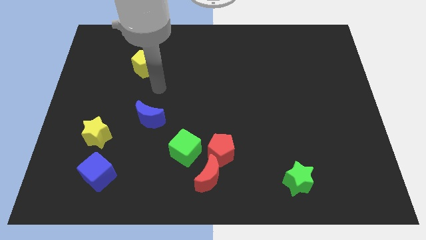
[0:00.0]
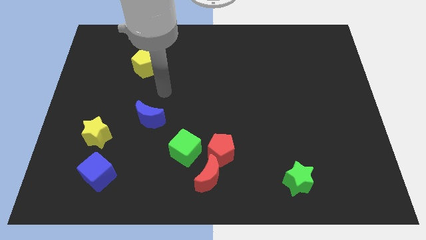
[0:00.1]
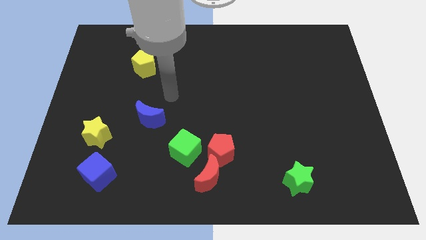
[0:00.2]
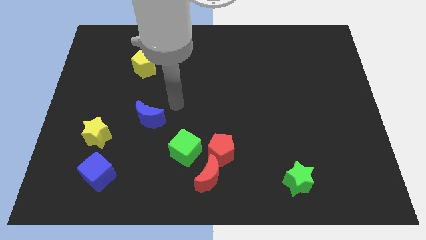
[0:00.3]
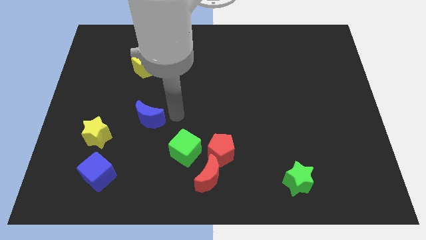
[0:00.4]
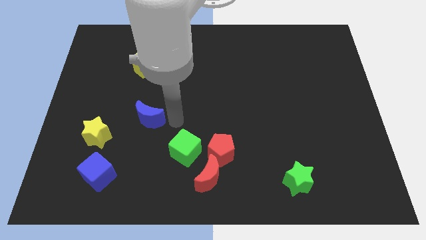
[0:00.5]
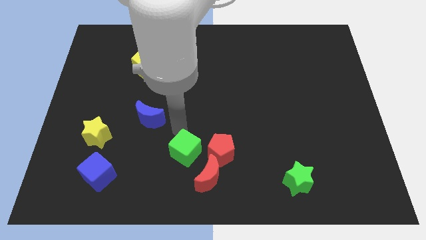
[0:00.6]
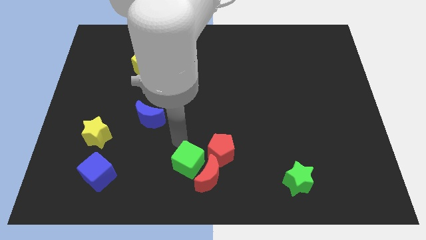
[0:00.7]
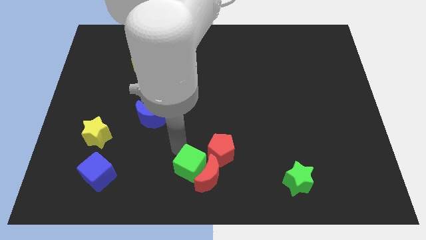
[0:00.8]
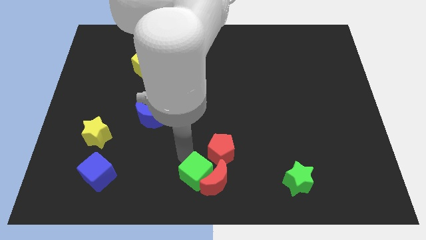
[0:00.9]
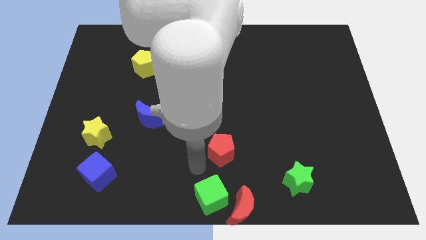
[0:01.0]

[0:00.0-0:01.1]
separate the red pentagon from the red moon and green cube

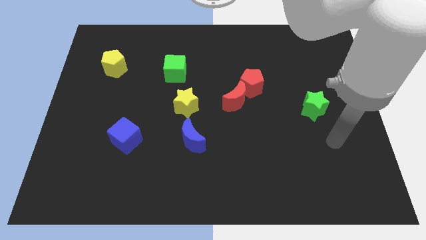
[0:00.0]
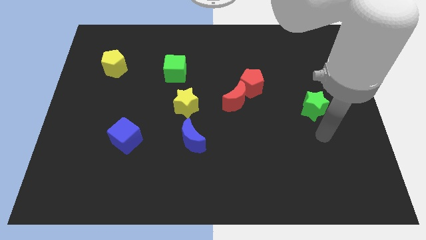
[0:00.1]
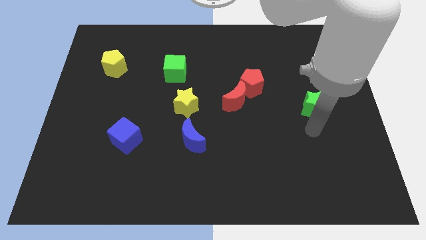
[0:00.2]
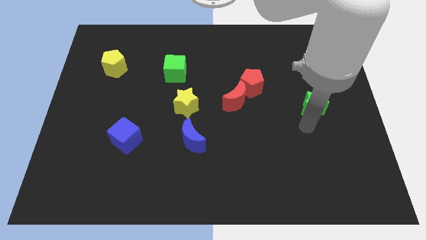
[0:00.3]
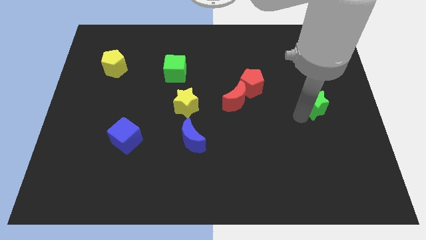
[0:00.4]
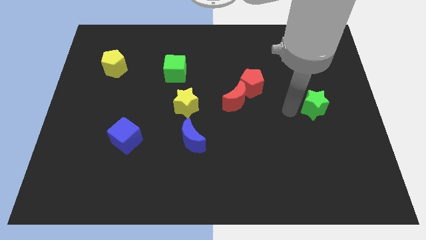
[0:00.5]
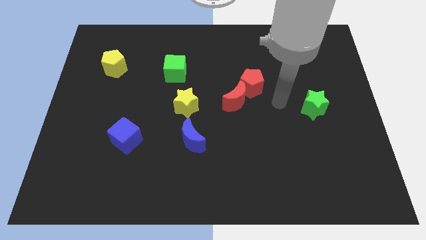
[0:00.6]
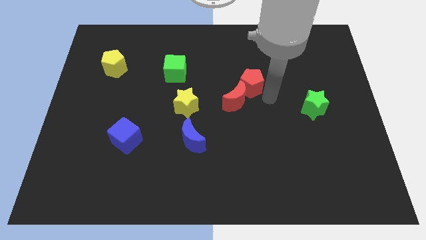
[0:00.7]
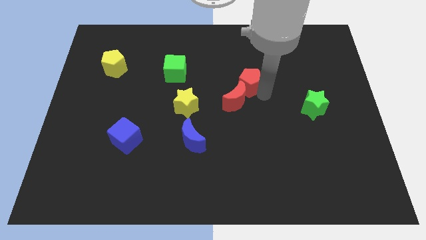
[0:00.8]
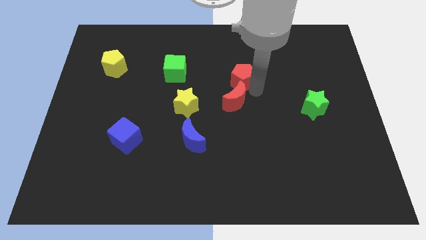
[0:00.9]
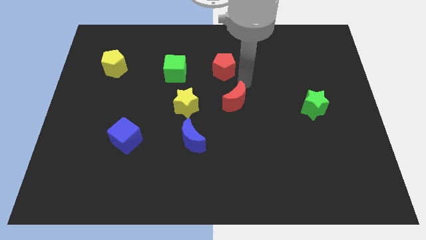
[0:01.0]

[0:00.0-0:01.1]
pull the red moon apart from the red pentagon

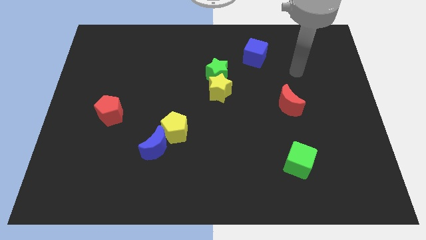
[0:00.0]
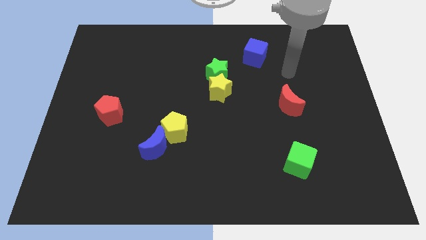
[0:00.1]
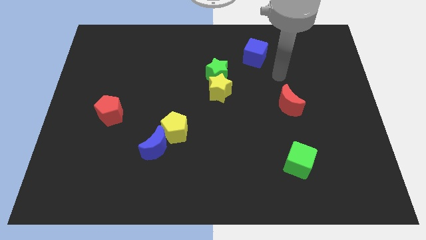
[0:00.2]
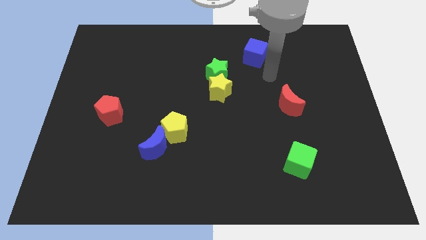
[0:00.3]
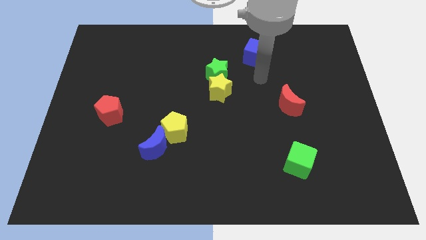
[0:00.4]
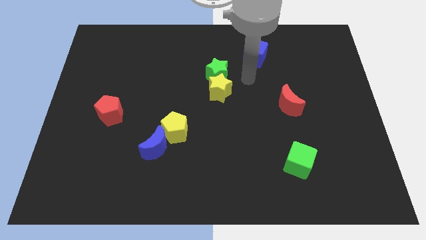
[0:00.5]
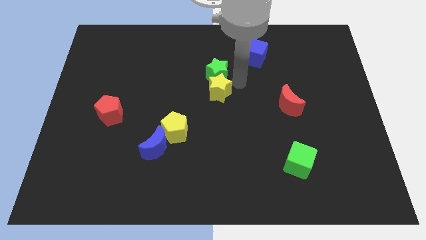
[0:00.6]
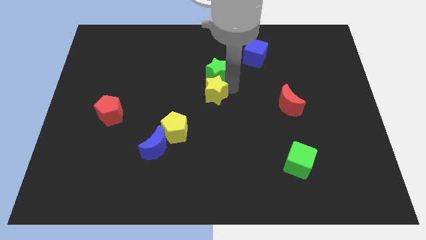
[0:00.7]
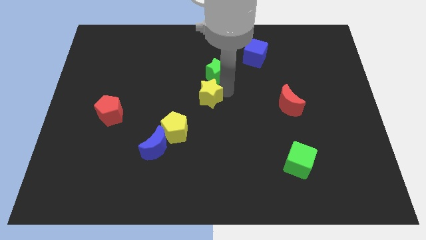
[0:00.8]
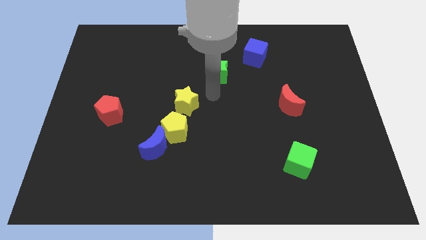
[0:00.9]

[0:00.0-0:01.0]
separate the green star from the yellow star

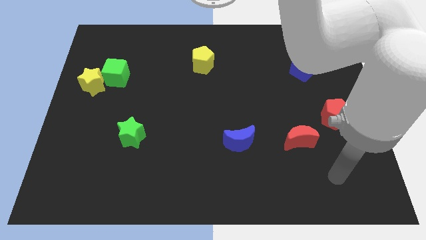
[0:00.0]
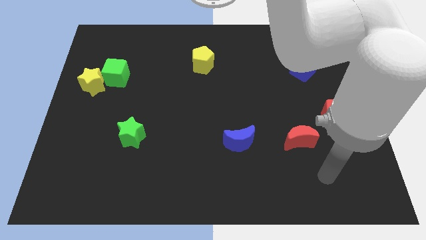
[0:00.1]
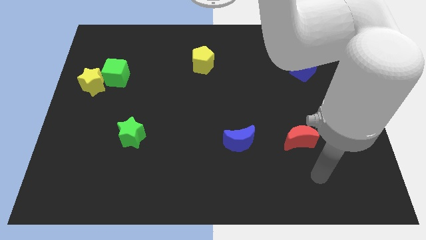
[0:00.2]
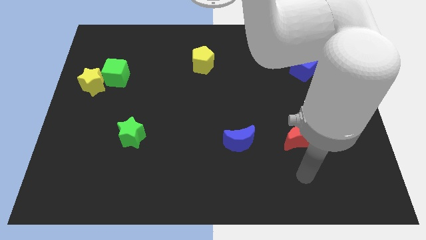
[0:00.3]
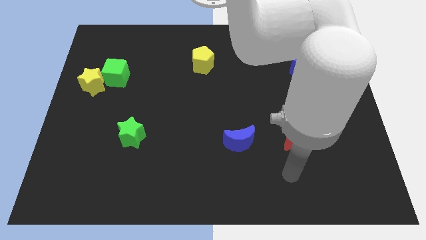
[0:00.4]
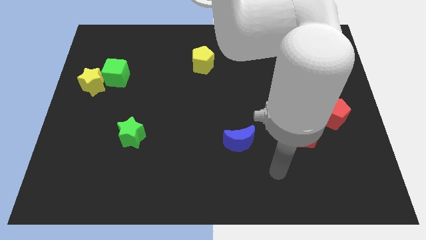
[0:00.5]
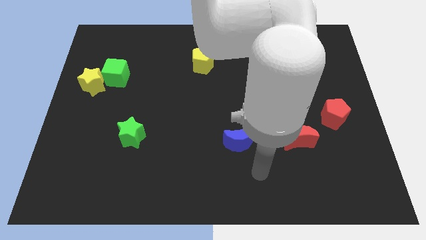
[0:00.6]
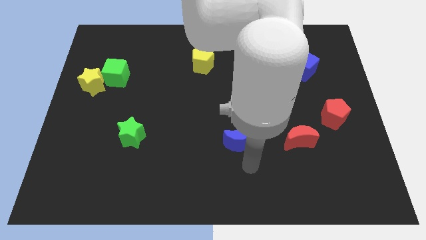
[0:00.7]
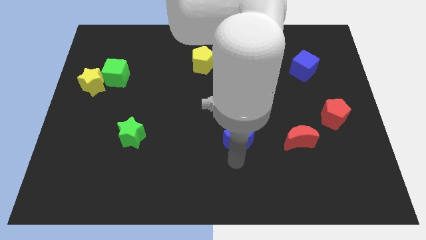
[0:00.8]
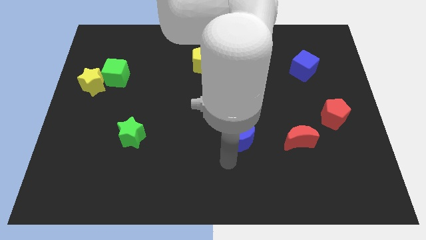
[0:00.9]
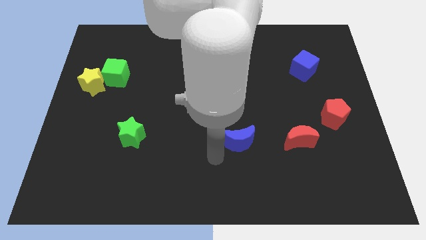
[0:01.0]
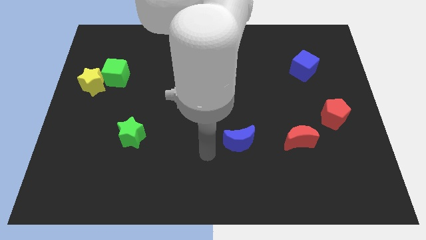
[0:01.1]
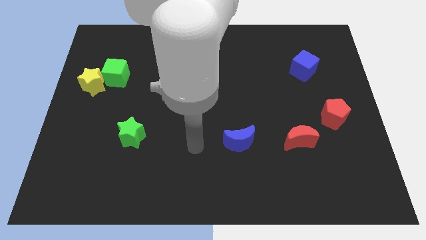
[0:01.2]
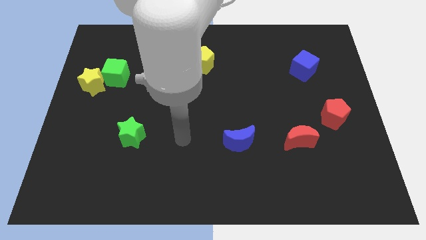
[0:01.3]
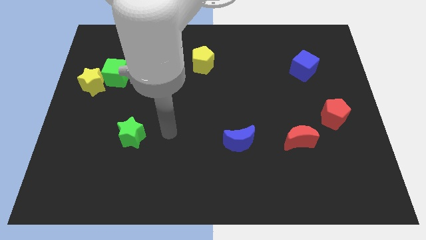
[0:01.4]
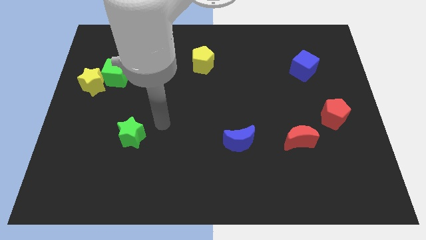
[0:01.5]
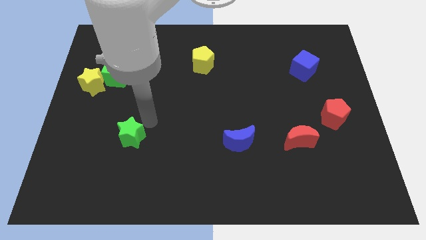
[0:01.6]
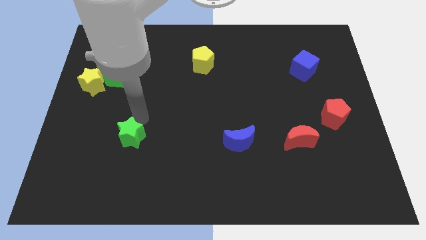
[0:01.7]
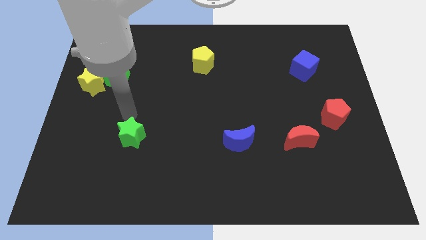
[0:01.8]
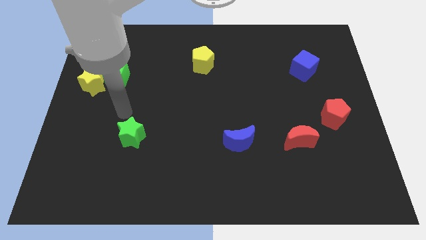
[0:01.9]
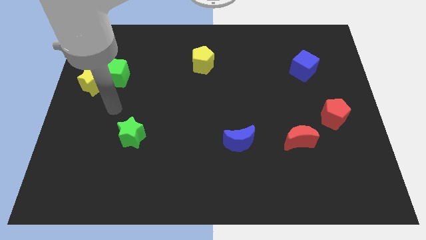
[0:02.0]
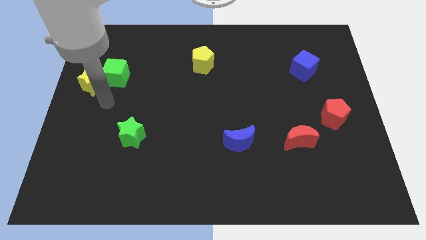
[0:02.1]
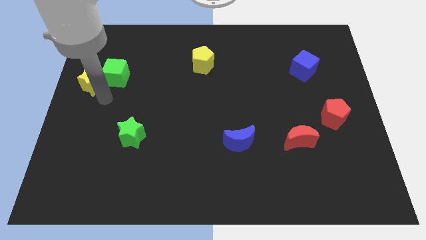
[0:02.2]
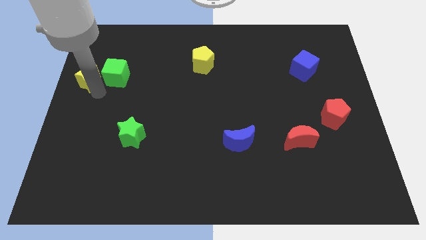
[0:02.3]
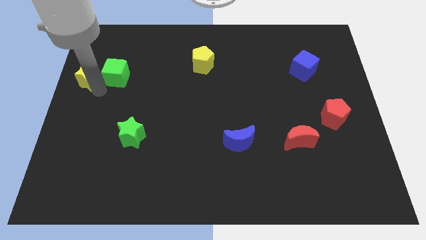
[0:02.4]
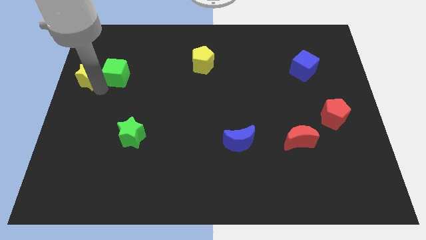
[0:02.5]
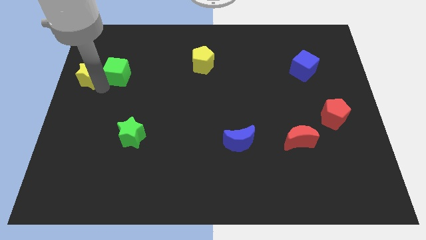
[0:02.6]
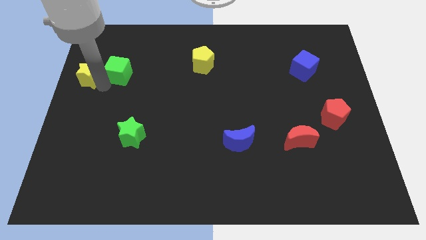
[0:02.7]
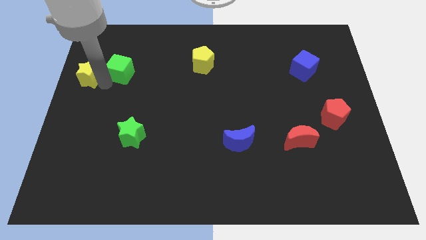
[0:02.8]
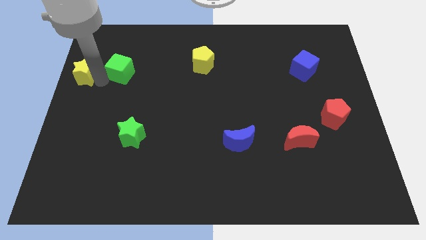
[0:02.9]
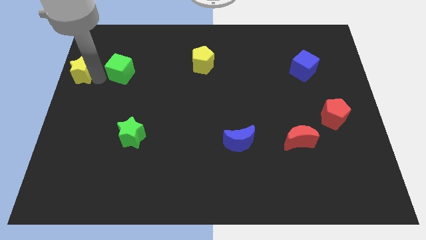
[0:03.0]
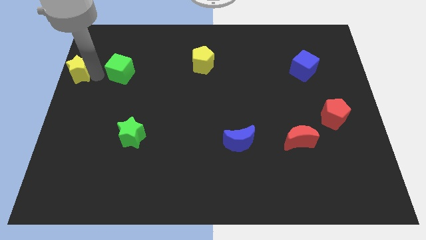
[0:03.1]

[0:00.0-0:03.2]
separate the green cube from the yellow star

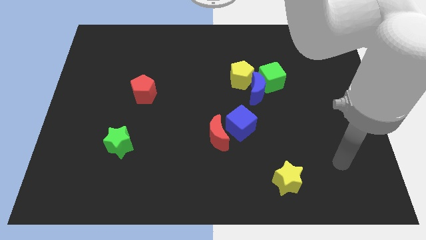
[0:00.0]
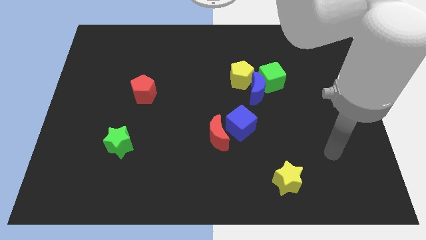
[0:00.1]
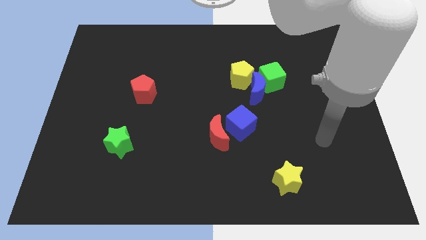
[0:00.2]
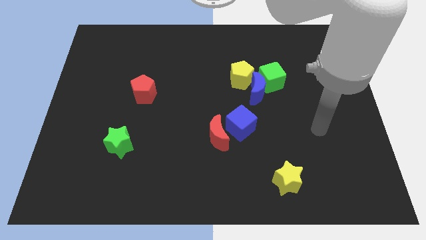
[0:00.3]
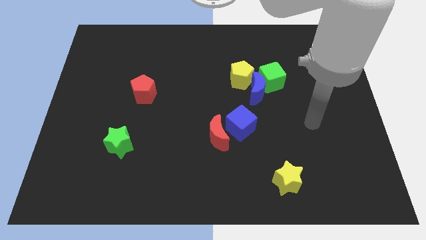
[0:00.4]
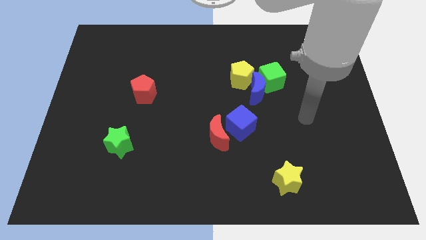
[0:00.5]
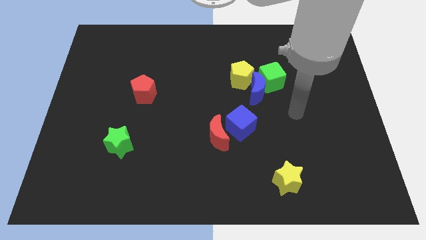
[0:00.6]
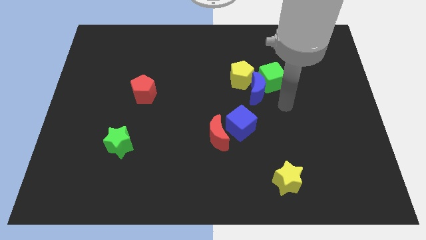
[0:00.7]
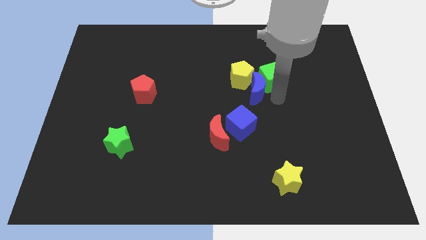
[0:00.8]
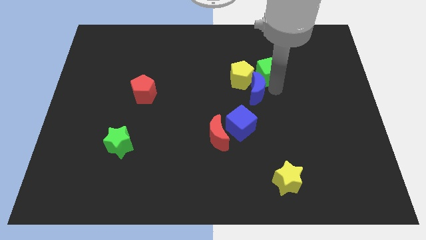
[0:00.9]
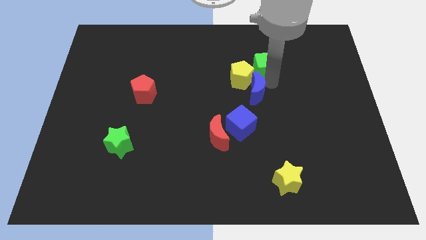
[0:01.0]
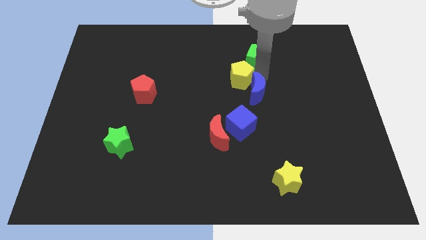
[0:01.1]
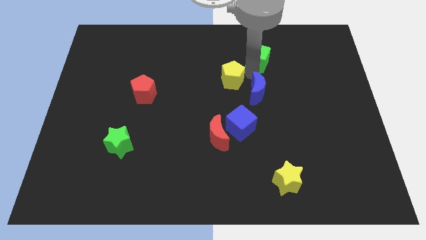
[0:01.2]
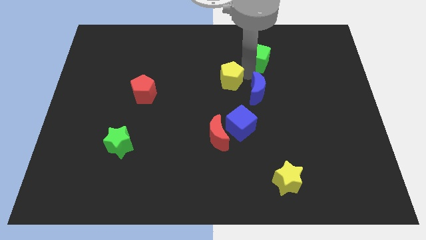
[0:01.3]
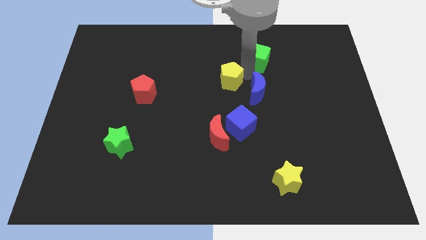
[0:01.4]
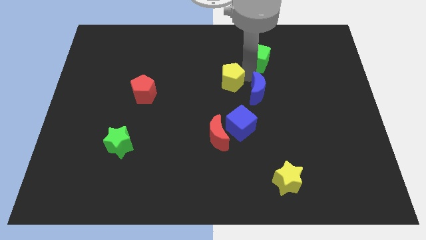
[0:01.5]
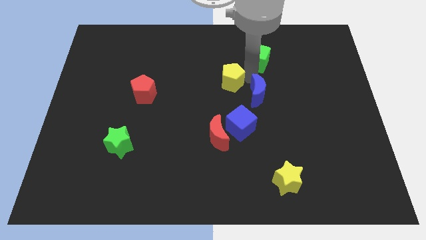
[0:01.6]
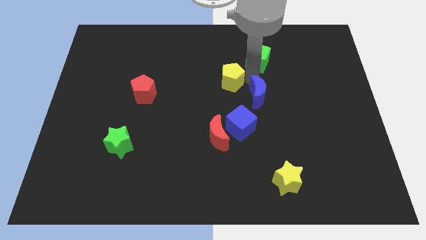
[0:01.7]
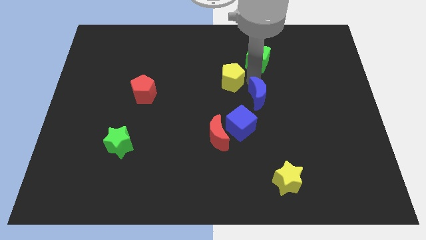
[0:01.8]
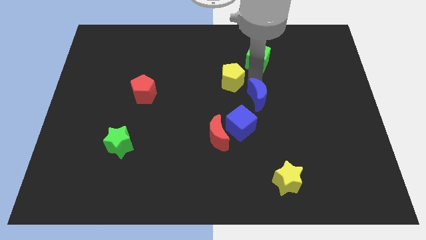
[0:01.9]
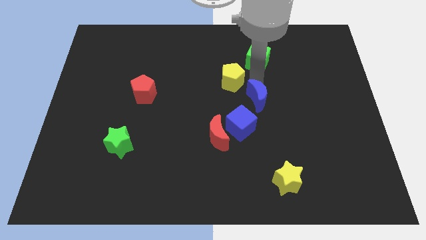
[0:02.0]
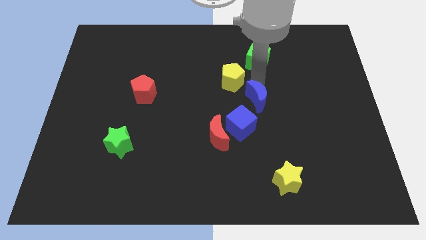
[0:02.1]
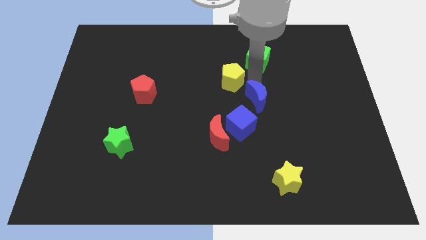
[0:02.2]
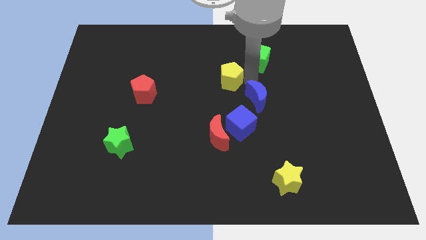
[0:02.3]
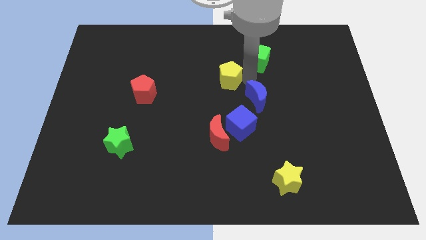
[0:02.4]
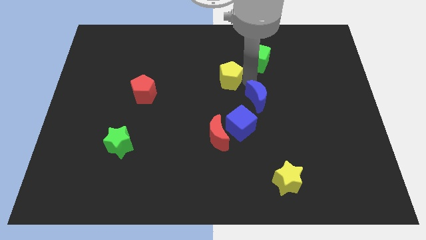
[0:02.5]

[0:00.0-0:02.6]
separate the blue moon from the green cube and yellow pentagon

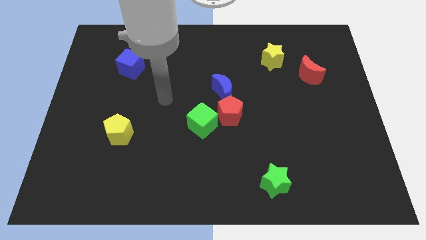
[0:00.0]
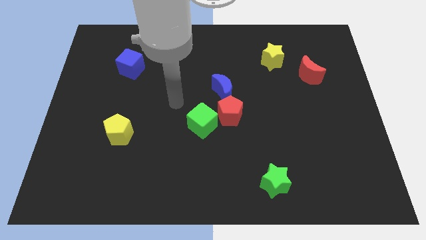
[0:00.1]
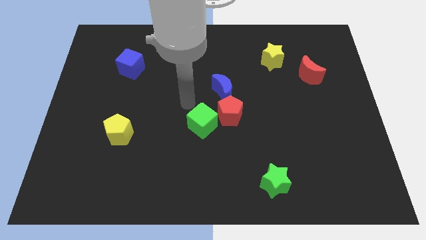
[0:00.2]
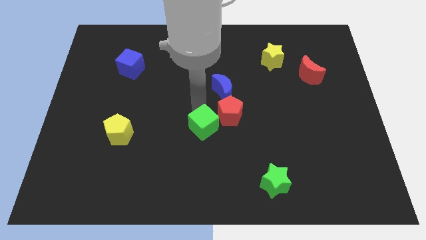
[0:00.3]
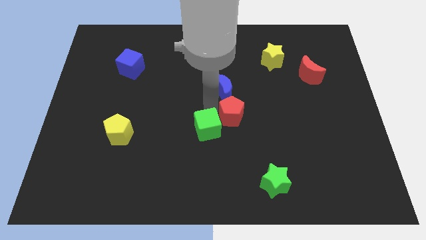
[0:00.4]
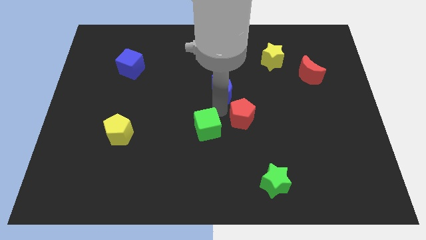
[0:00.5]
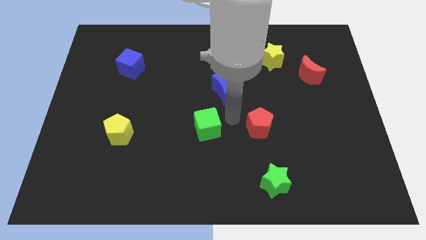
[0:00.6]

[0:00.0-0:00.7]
separate the green cube from the red pentagon
